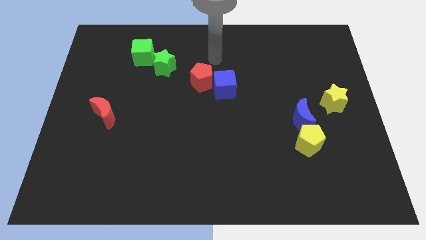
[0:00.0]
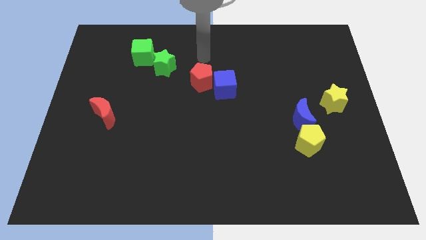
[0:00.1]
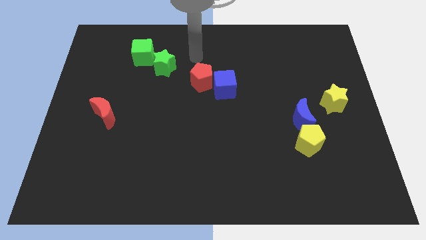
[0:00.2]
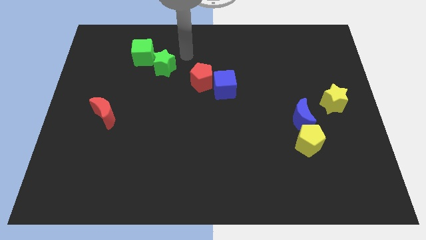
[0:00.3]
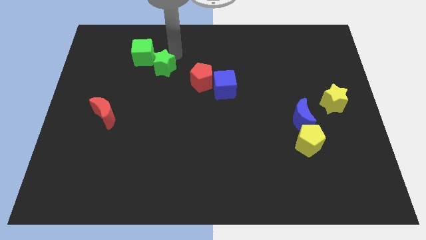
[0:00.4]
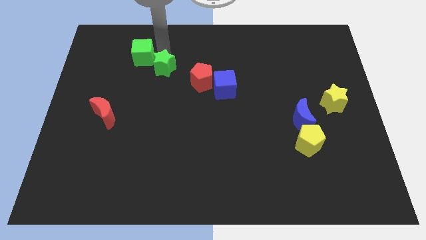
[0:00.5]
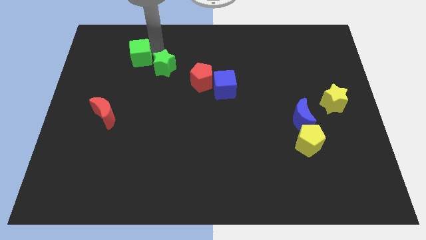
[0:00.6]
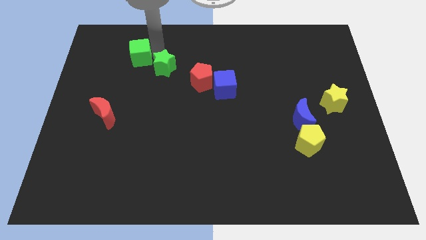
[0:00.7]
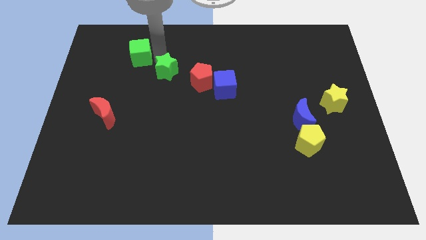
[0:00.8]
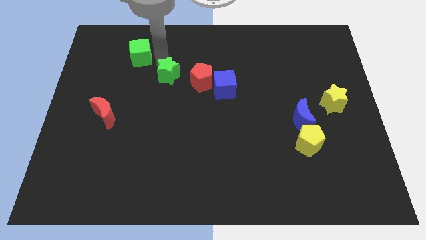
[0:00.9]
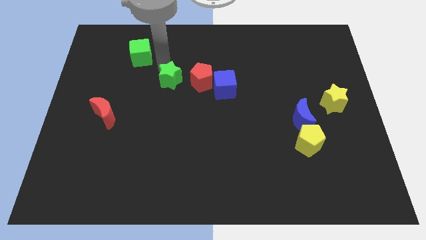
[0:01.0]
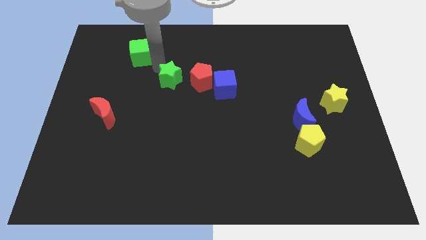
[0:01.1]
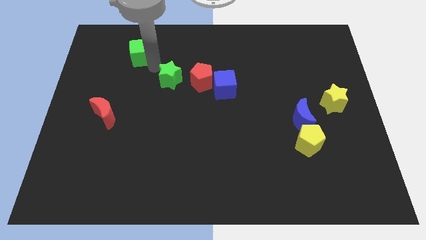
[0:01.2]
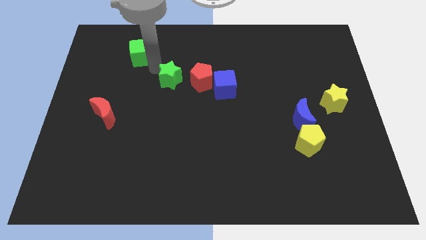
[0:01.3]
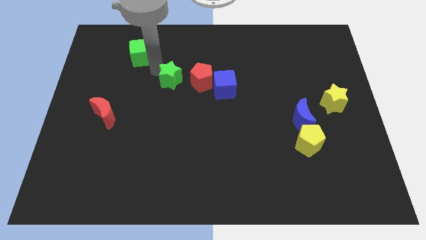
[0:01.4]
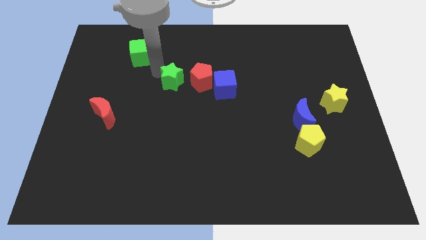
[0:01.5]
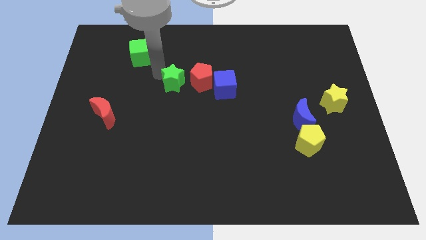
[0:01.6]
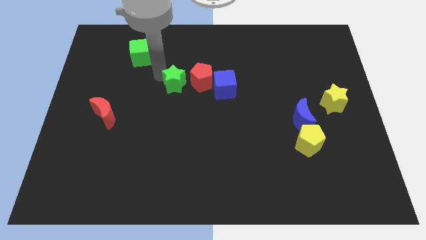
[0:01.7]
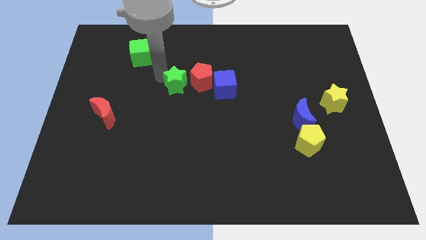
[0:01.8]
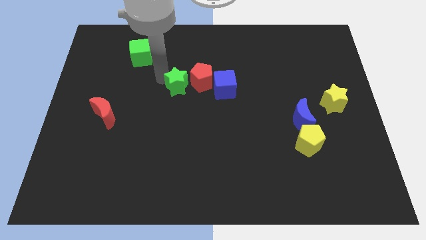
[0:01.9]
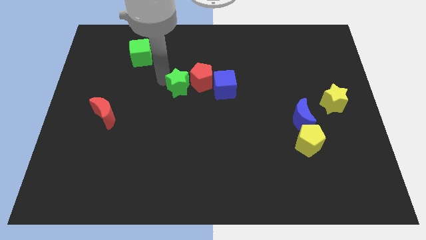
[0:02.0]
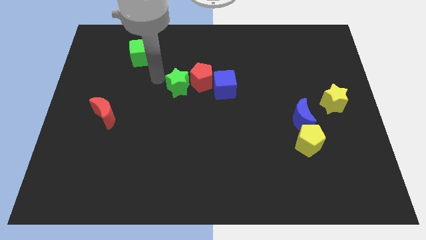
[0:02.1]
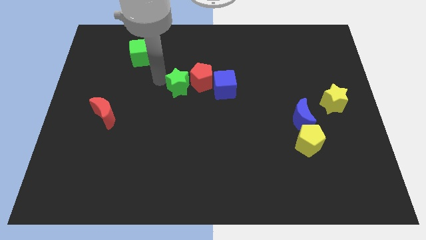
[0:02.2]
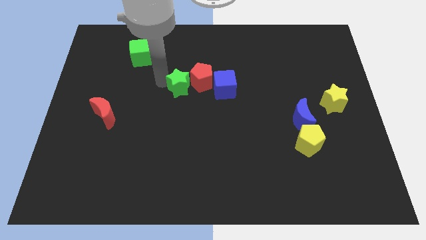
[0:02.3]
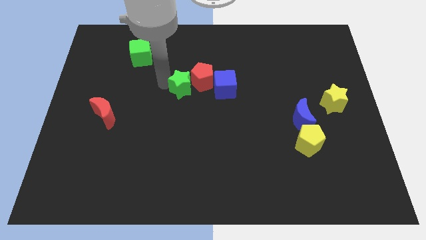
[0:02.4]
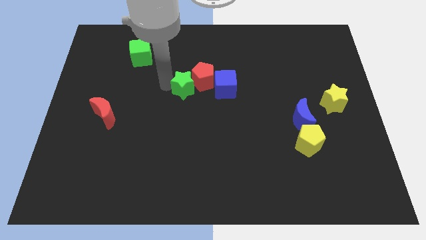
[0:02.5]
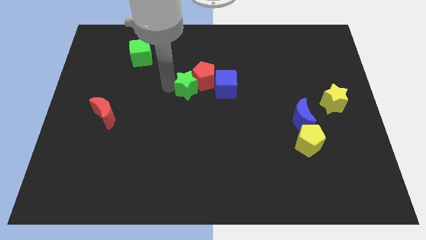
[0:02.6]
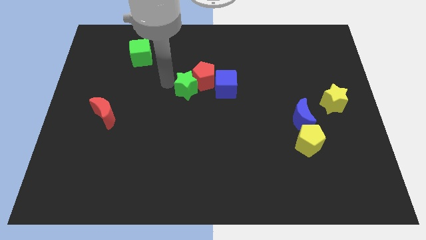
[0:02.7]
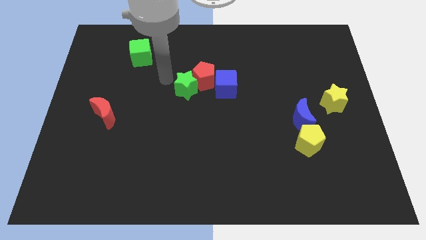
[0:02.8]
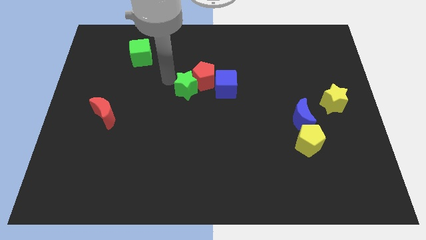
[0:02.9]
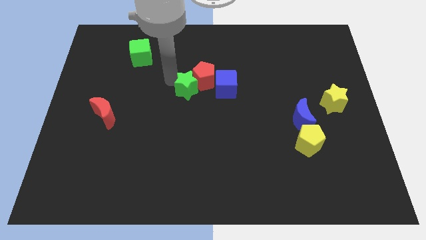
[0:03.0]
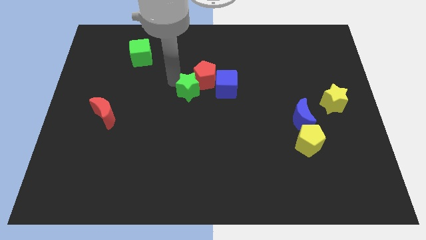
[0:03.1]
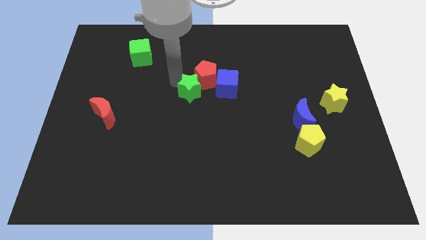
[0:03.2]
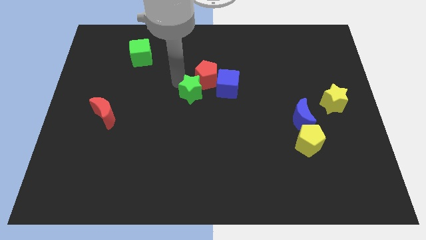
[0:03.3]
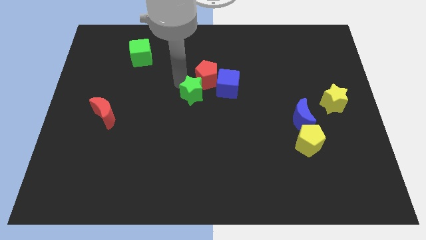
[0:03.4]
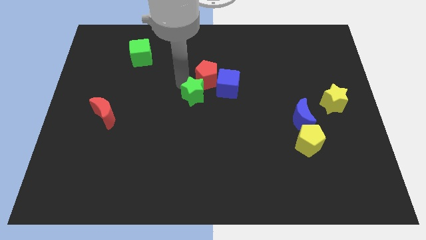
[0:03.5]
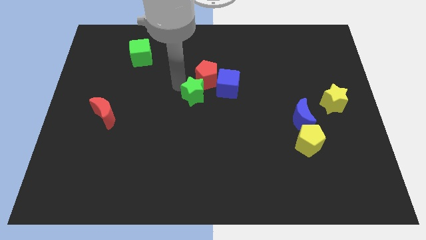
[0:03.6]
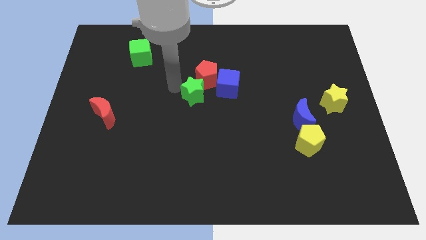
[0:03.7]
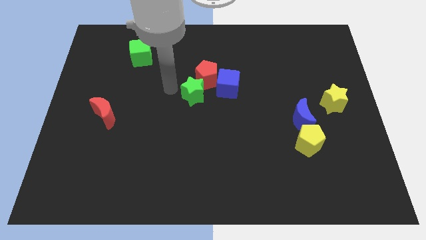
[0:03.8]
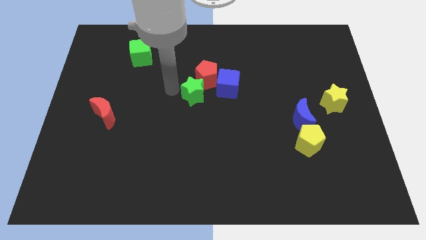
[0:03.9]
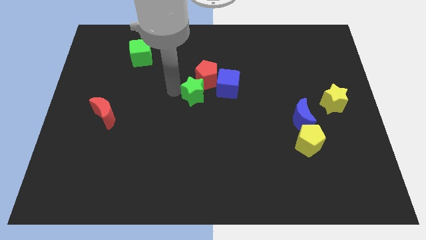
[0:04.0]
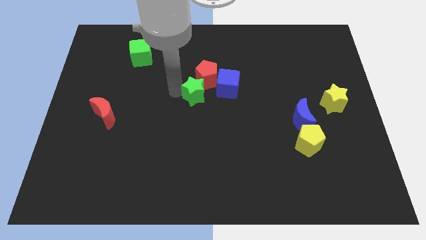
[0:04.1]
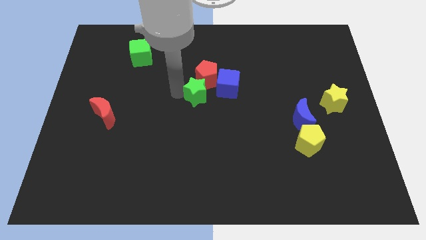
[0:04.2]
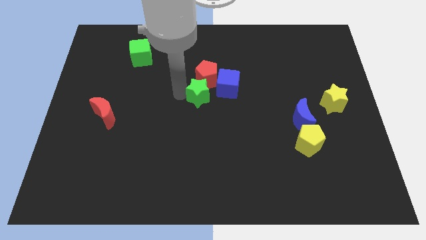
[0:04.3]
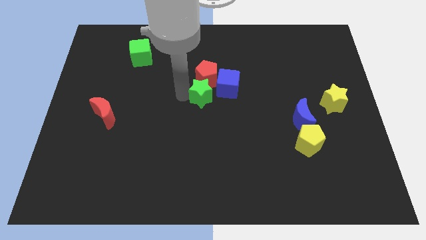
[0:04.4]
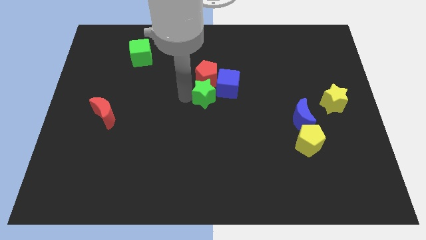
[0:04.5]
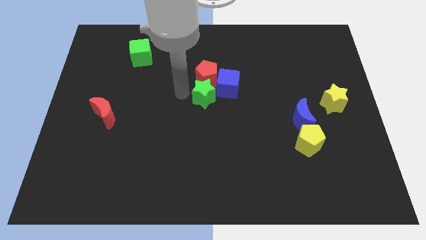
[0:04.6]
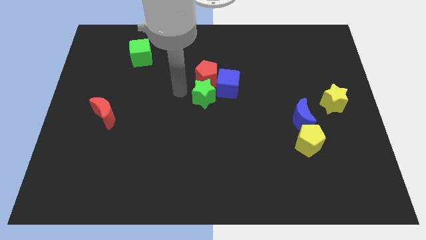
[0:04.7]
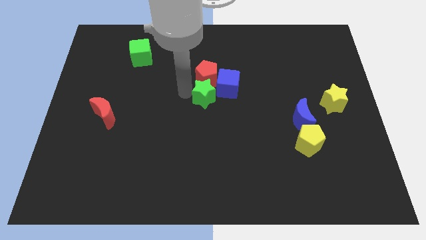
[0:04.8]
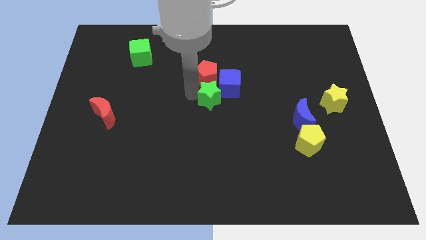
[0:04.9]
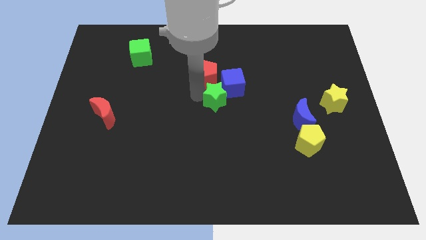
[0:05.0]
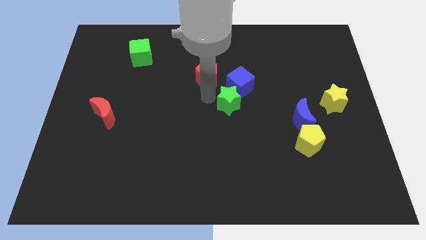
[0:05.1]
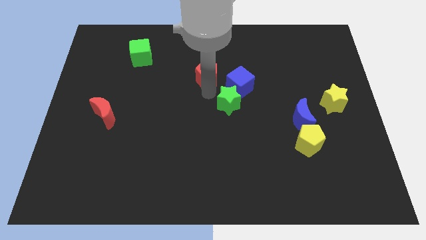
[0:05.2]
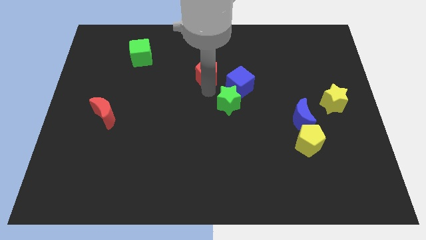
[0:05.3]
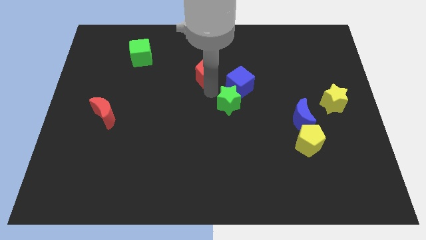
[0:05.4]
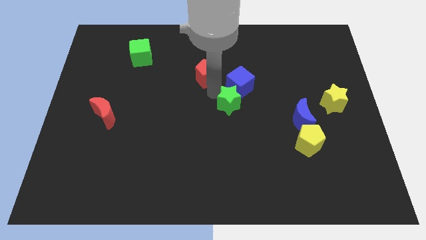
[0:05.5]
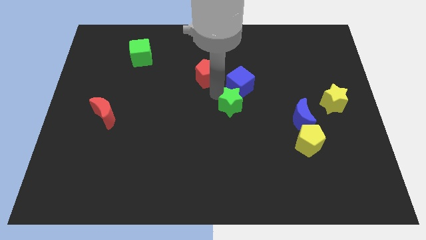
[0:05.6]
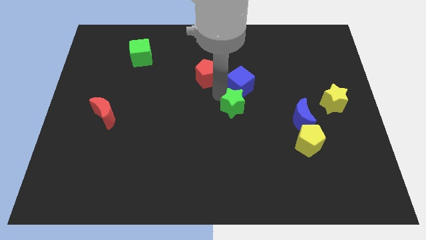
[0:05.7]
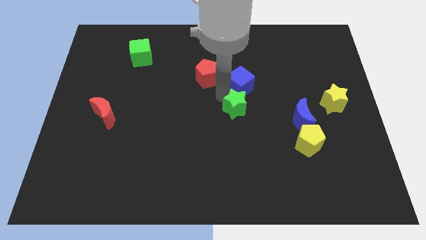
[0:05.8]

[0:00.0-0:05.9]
move the green star left of the blue moon

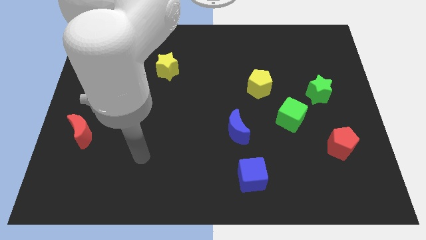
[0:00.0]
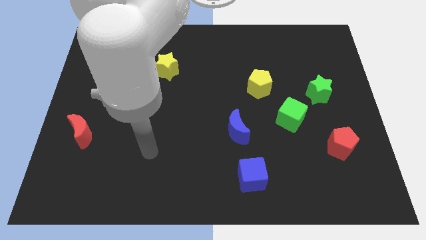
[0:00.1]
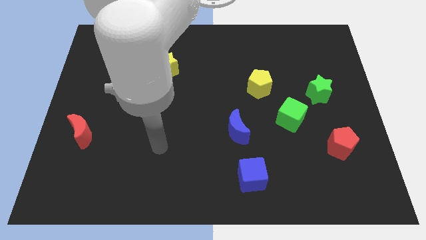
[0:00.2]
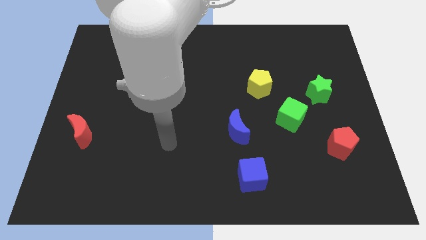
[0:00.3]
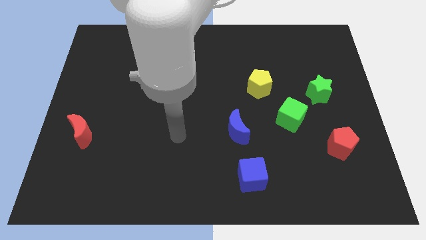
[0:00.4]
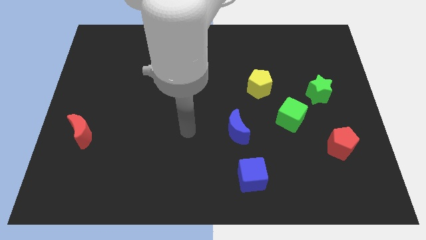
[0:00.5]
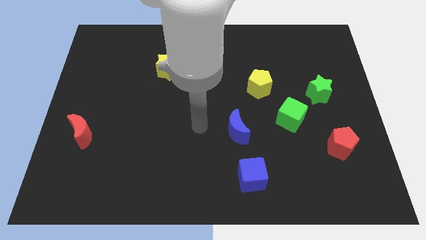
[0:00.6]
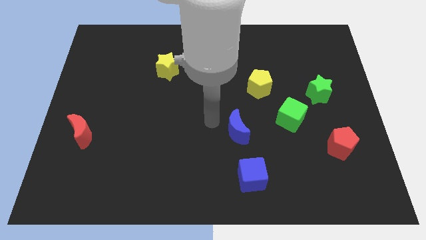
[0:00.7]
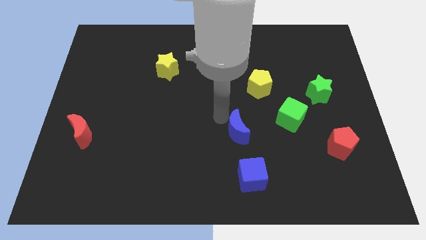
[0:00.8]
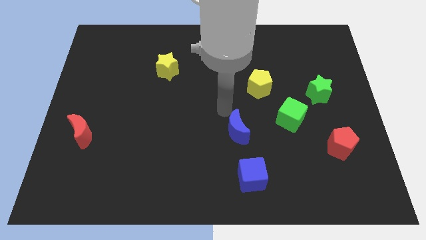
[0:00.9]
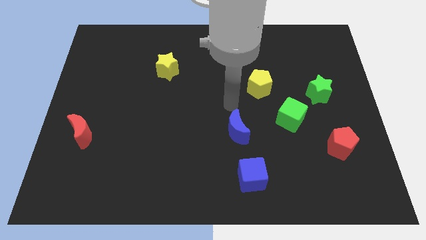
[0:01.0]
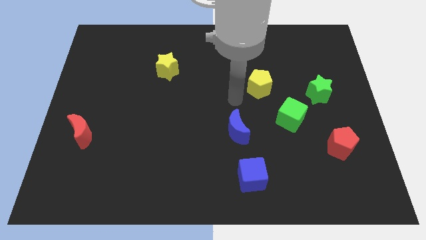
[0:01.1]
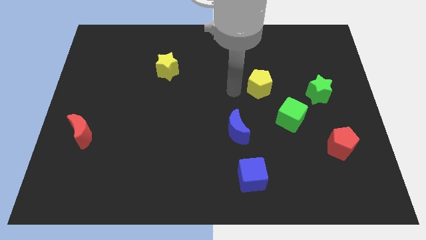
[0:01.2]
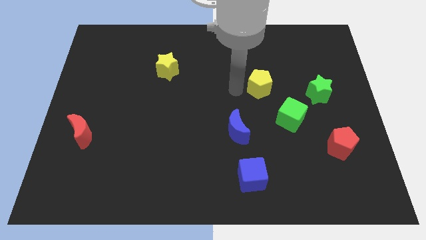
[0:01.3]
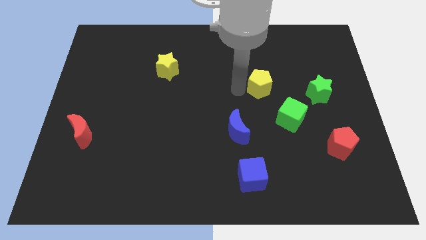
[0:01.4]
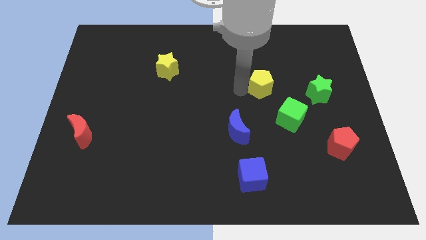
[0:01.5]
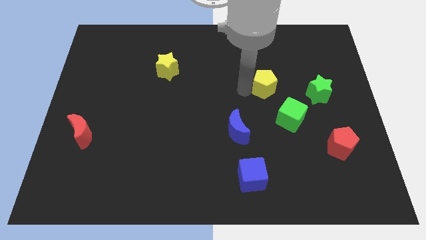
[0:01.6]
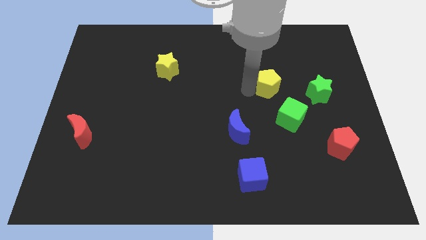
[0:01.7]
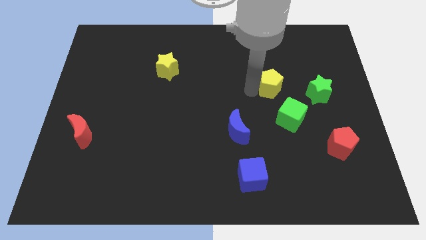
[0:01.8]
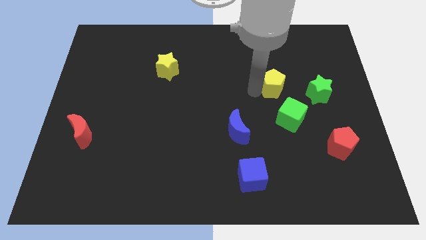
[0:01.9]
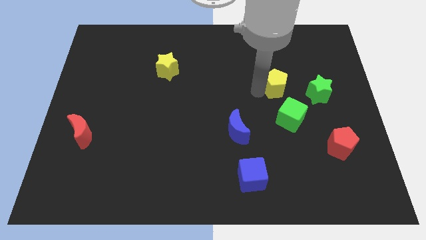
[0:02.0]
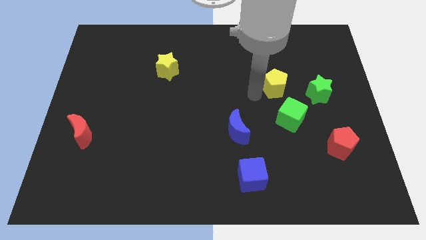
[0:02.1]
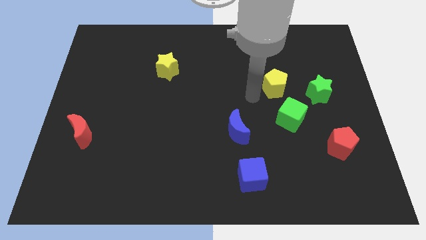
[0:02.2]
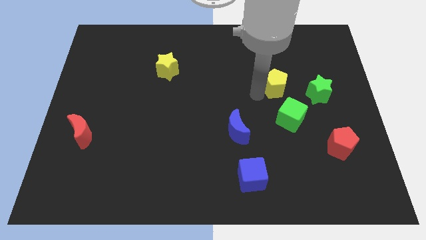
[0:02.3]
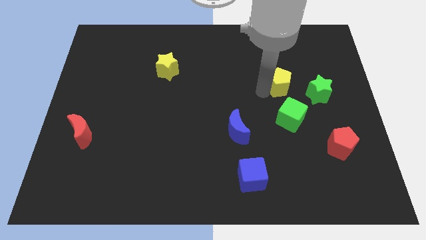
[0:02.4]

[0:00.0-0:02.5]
move the yellow pentagon to the top left of the green star
